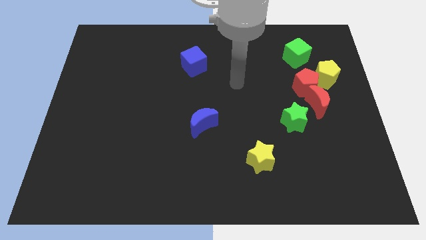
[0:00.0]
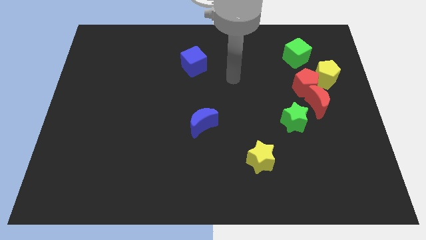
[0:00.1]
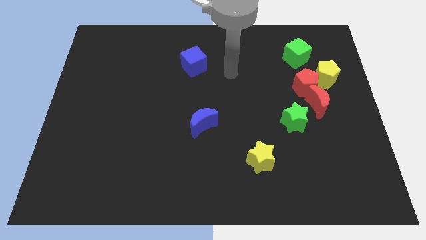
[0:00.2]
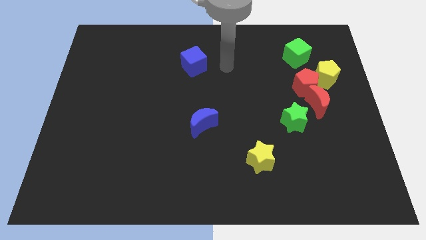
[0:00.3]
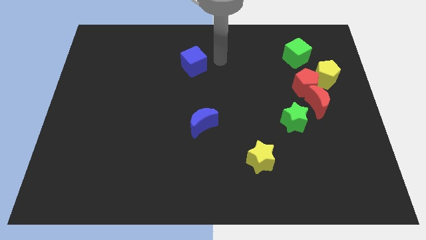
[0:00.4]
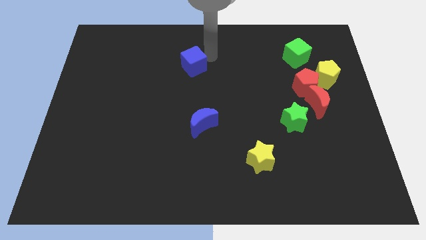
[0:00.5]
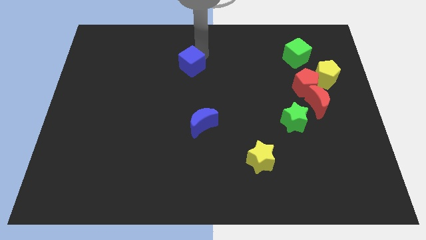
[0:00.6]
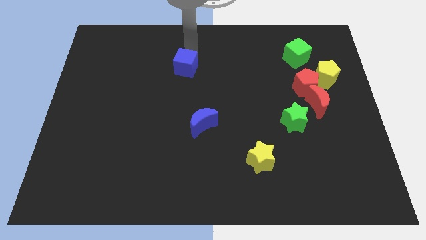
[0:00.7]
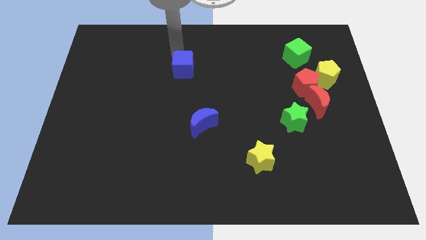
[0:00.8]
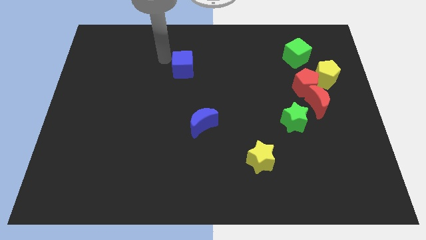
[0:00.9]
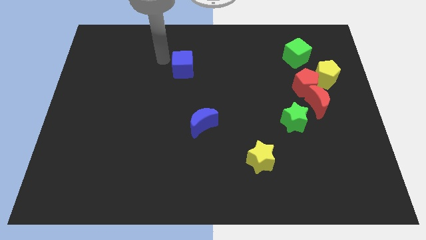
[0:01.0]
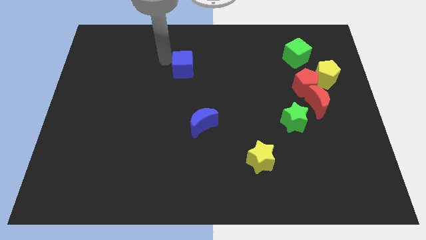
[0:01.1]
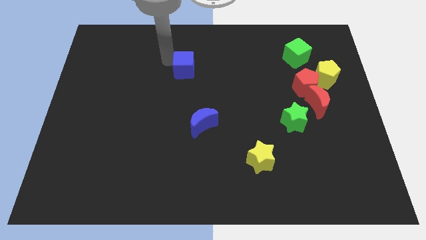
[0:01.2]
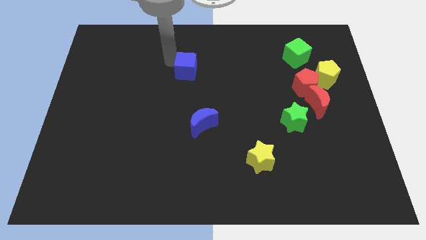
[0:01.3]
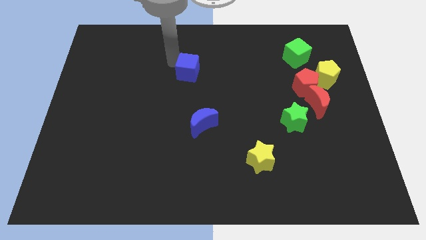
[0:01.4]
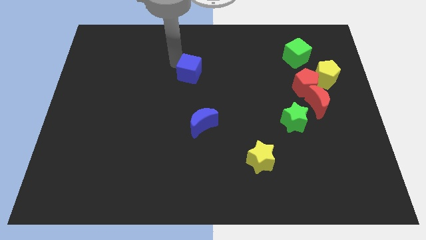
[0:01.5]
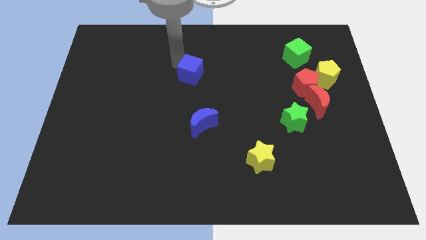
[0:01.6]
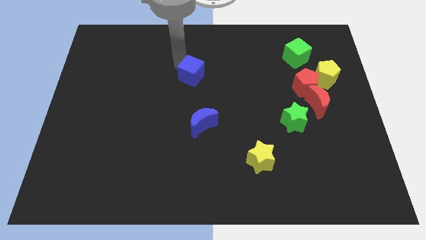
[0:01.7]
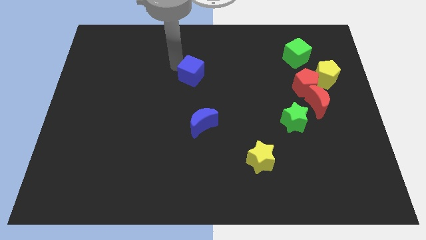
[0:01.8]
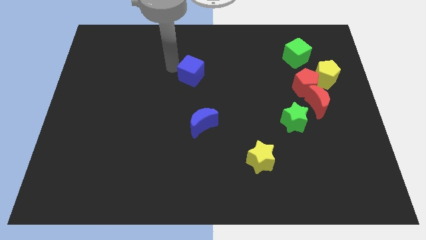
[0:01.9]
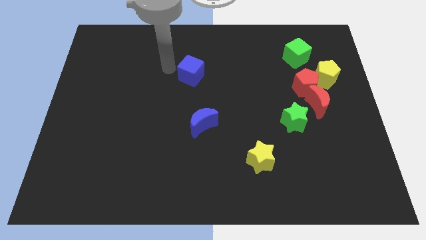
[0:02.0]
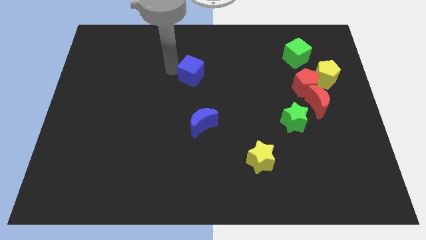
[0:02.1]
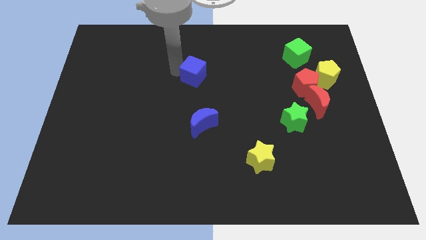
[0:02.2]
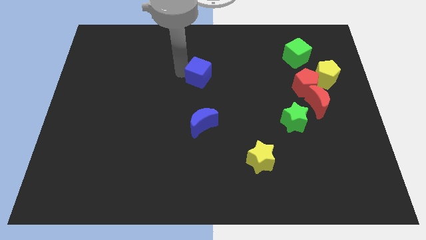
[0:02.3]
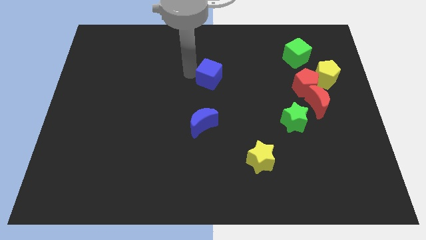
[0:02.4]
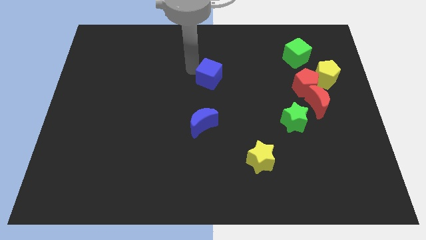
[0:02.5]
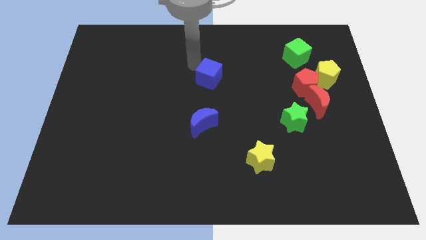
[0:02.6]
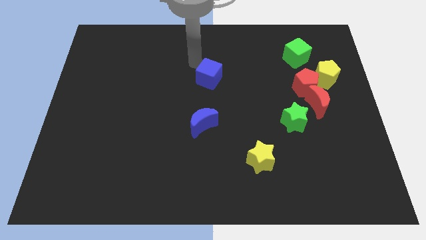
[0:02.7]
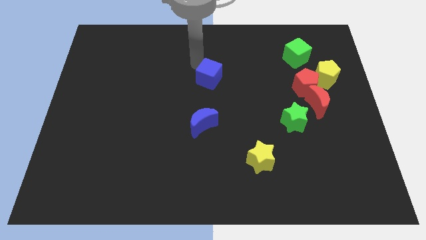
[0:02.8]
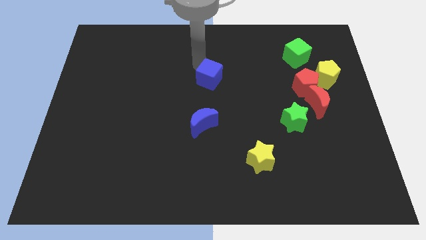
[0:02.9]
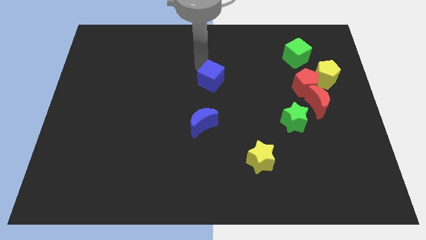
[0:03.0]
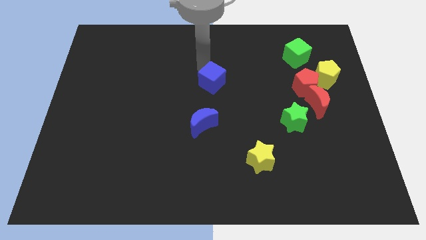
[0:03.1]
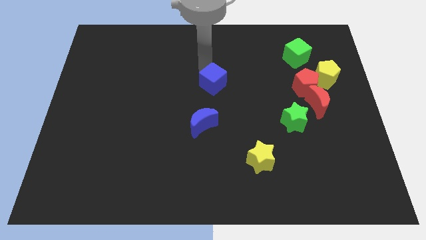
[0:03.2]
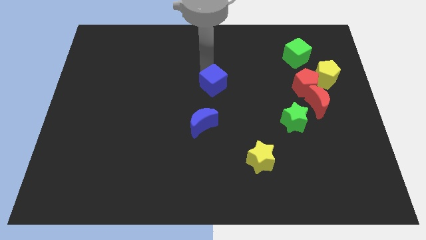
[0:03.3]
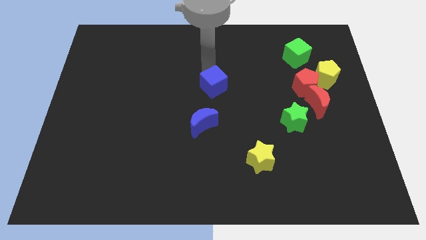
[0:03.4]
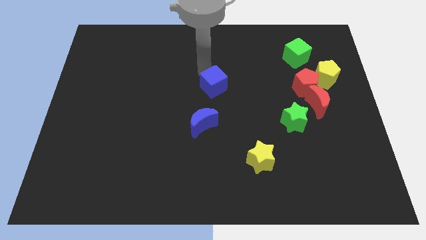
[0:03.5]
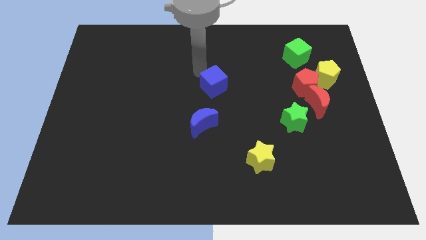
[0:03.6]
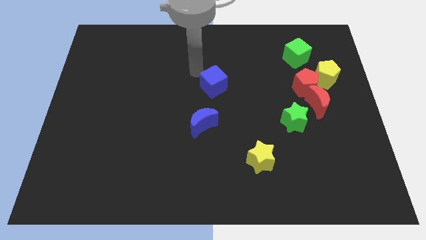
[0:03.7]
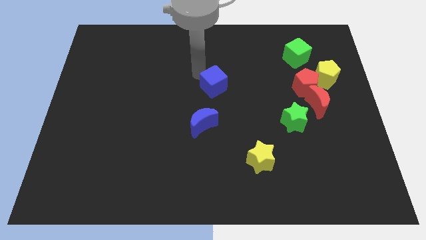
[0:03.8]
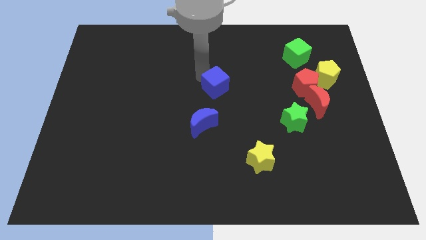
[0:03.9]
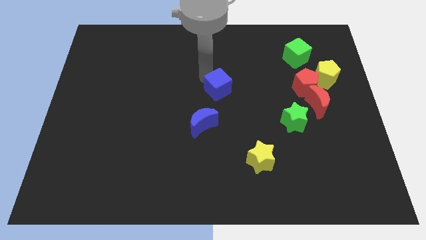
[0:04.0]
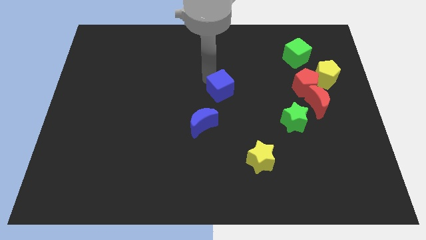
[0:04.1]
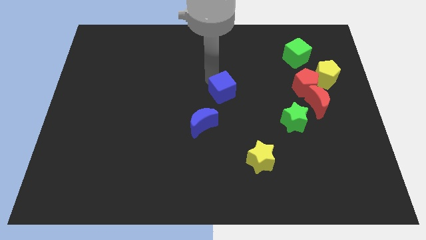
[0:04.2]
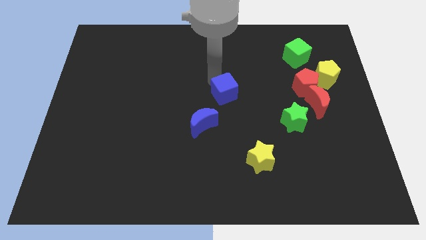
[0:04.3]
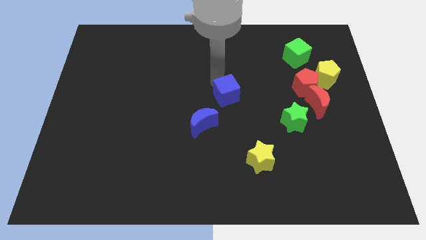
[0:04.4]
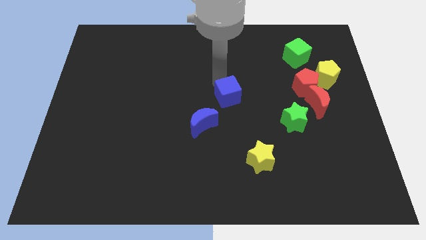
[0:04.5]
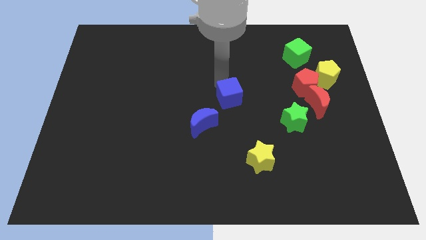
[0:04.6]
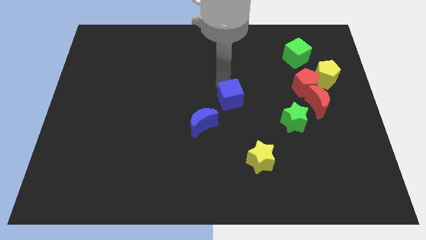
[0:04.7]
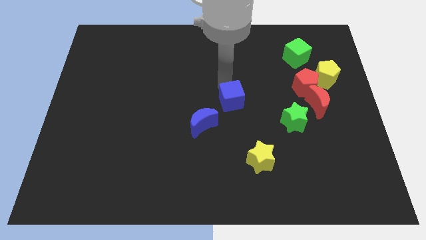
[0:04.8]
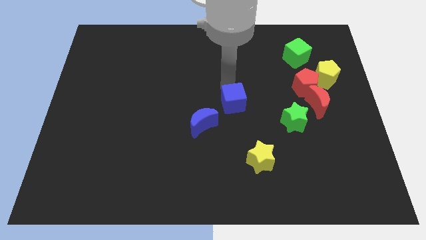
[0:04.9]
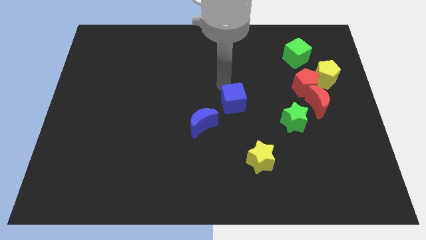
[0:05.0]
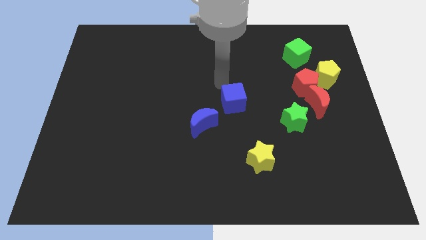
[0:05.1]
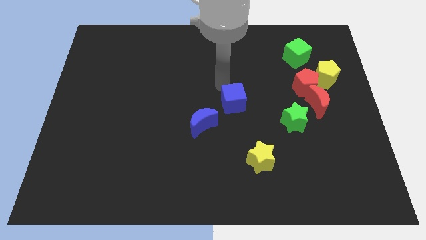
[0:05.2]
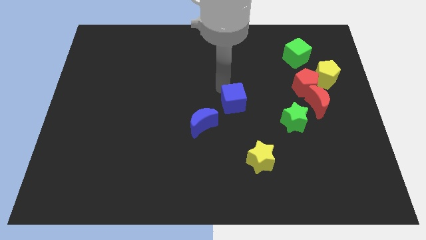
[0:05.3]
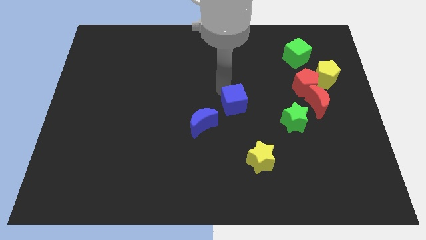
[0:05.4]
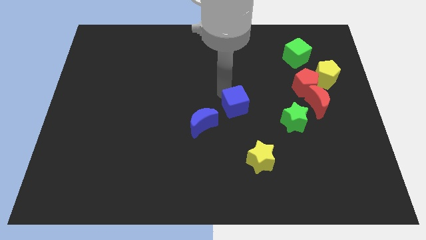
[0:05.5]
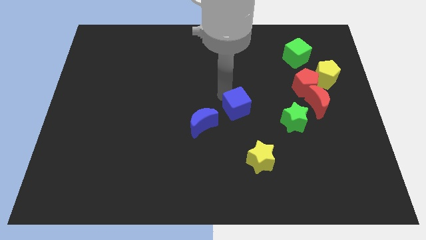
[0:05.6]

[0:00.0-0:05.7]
slide the blue cube to the right of the blue moon
